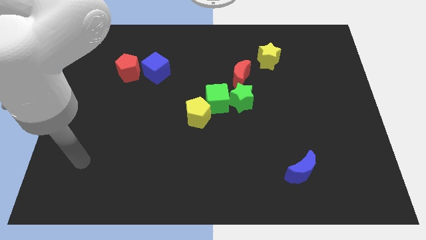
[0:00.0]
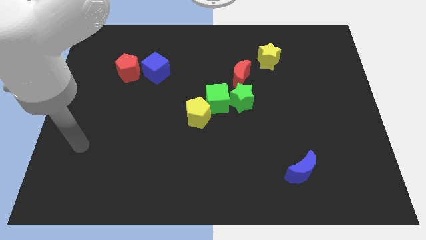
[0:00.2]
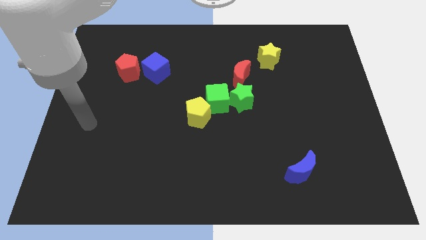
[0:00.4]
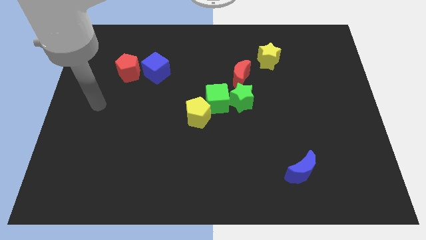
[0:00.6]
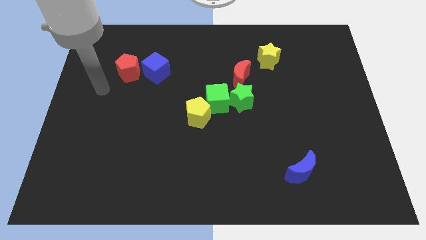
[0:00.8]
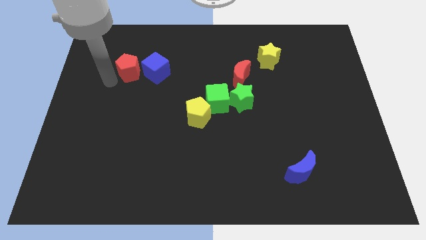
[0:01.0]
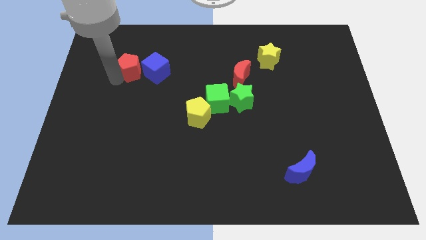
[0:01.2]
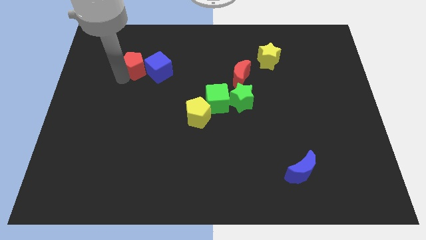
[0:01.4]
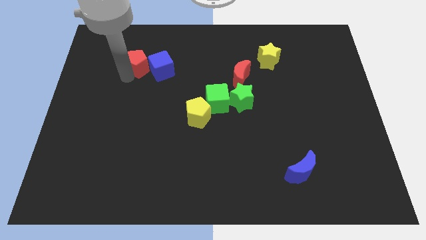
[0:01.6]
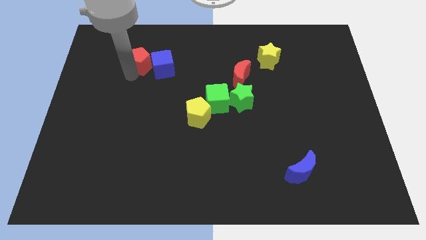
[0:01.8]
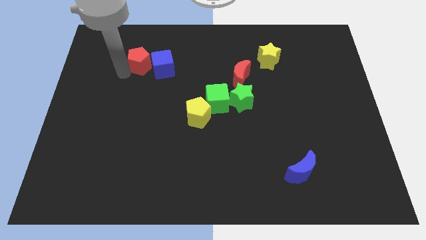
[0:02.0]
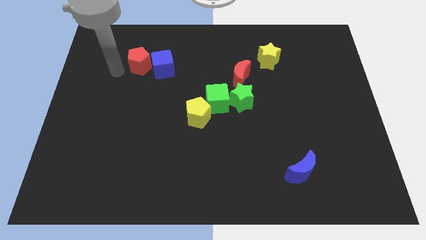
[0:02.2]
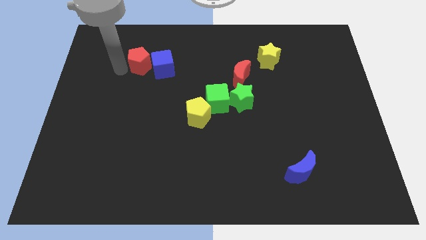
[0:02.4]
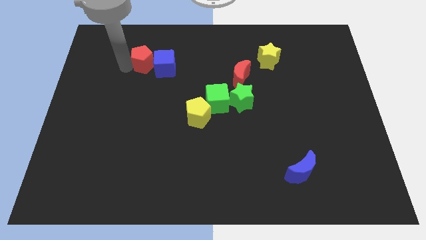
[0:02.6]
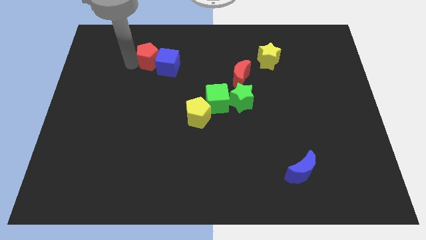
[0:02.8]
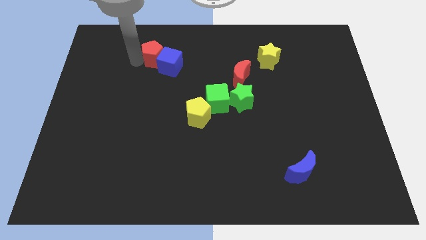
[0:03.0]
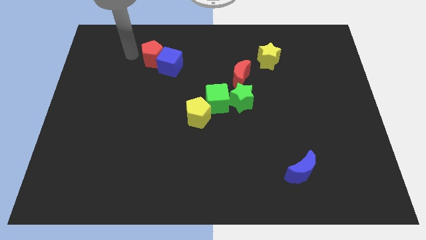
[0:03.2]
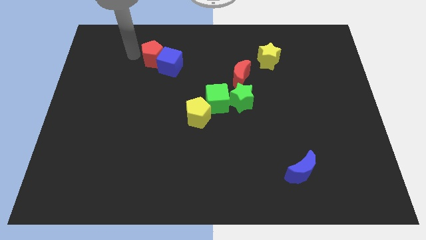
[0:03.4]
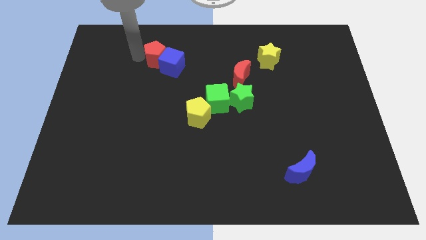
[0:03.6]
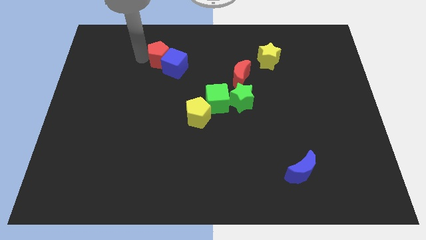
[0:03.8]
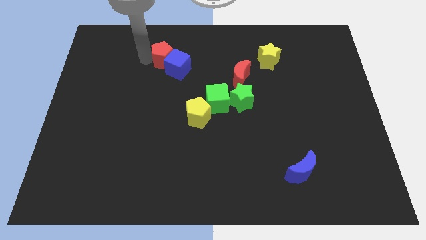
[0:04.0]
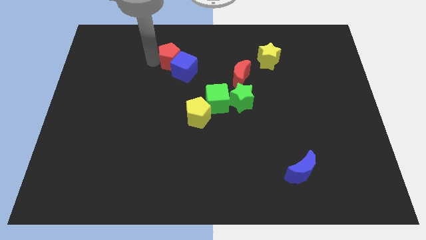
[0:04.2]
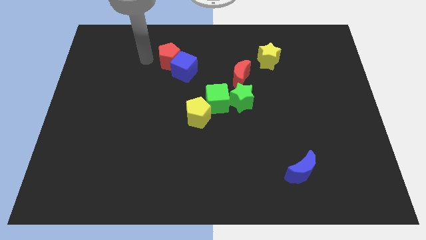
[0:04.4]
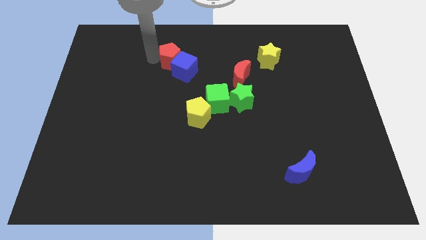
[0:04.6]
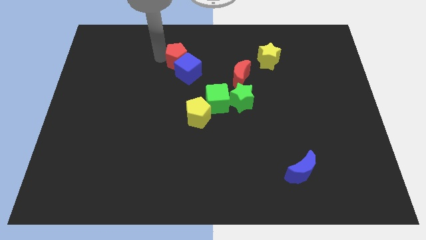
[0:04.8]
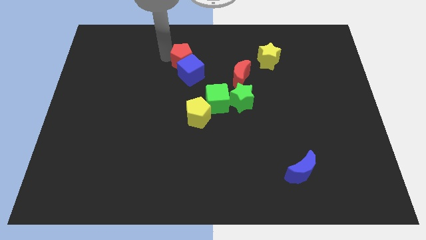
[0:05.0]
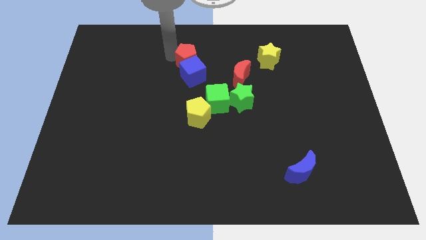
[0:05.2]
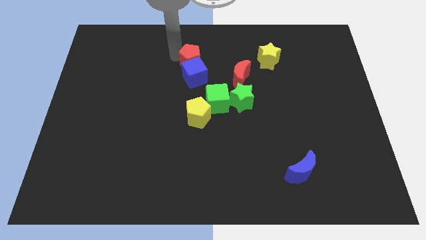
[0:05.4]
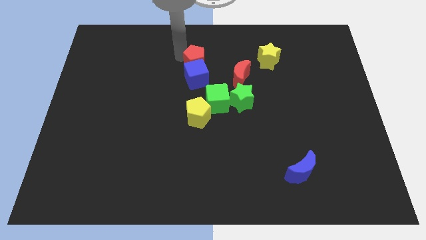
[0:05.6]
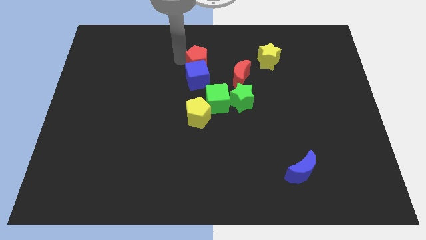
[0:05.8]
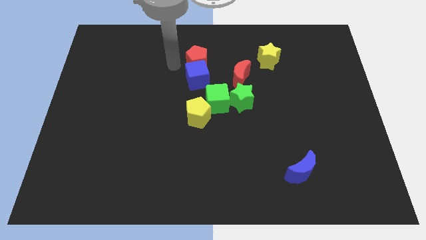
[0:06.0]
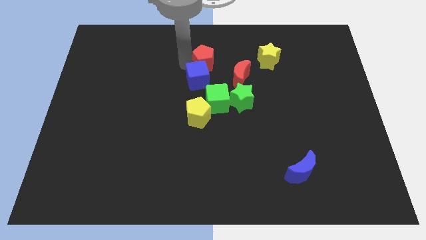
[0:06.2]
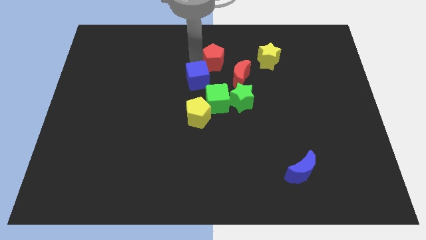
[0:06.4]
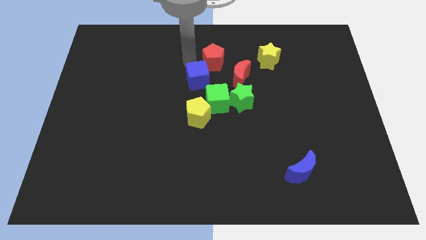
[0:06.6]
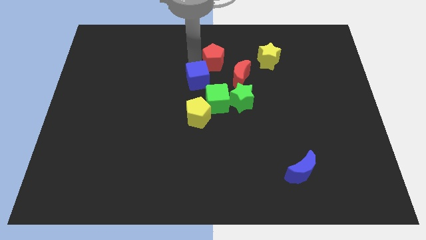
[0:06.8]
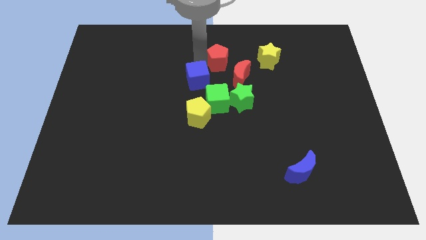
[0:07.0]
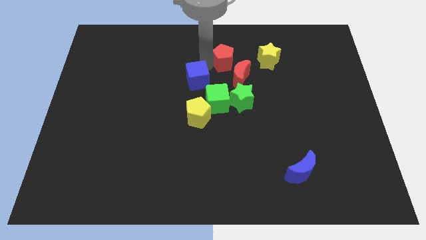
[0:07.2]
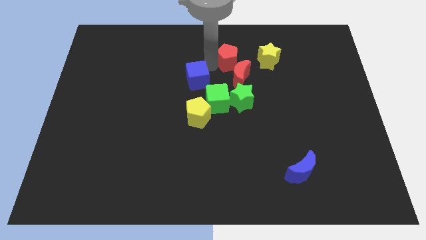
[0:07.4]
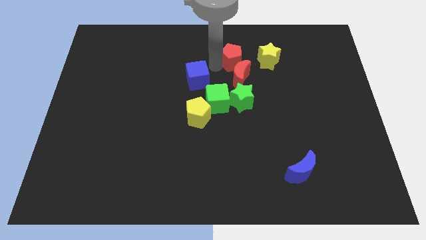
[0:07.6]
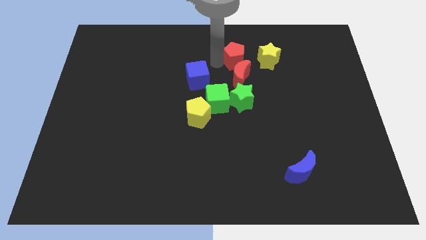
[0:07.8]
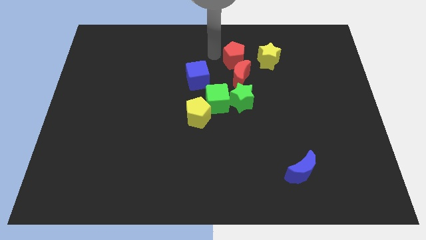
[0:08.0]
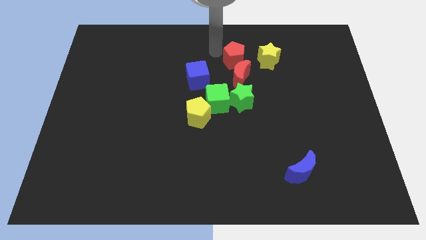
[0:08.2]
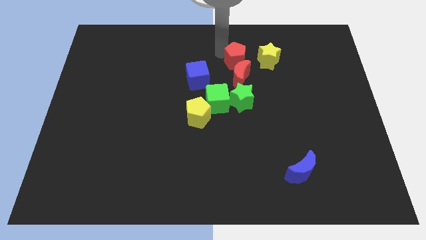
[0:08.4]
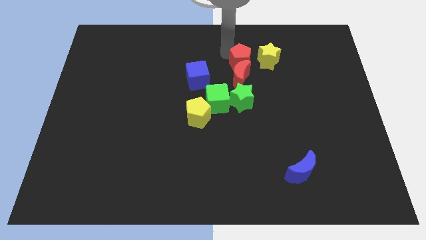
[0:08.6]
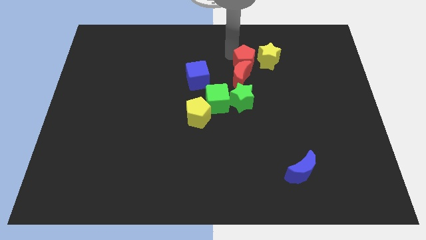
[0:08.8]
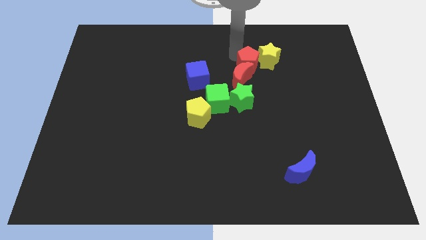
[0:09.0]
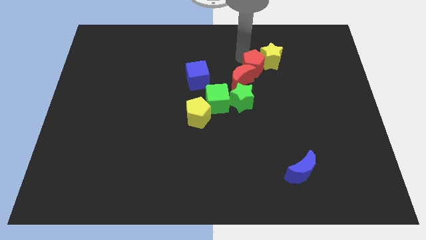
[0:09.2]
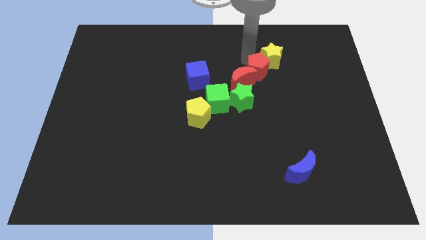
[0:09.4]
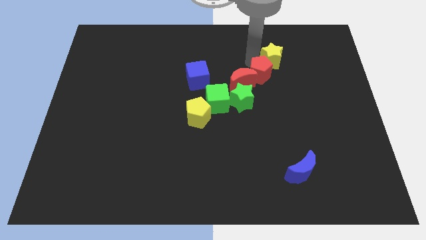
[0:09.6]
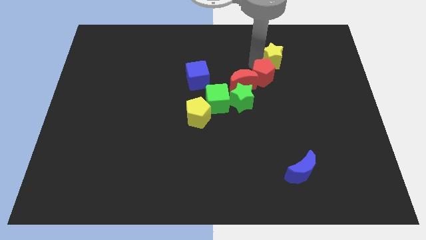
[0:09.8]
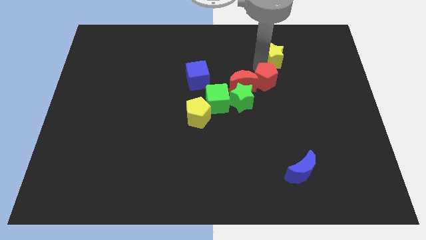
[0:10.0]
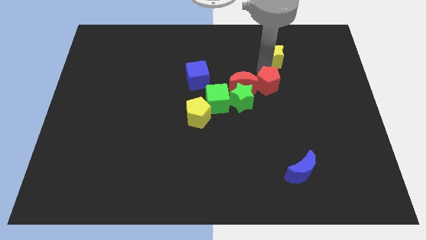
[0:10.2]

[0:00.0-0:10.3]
push the red pentagon right of the green star

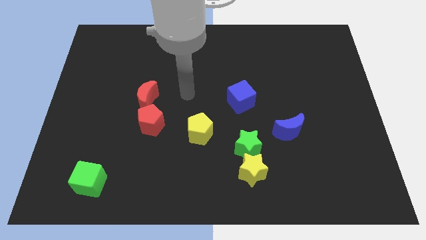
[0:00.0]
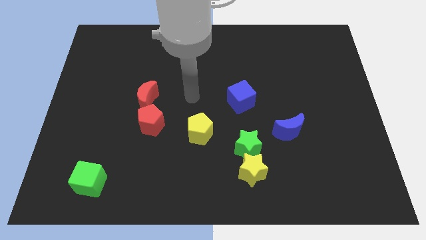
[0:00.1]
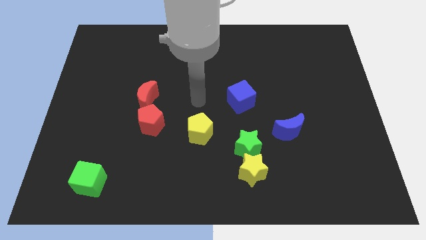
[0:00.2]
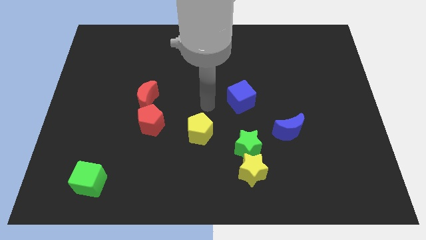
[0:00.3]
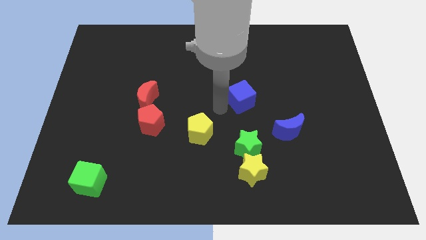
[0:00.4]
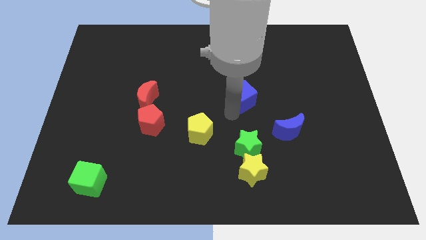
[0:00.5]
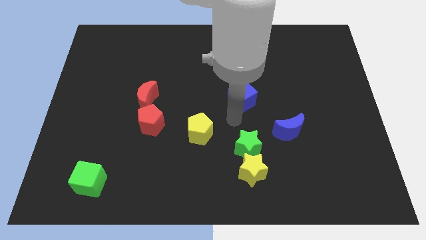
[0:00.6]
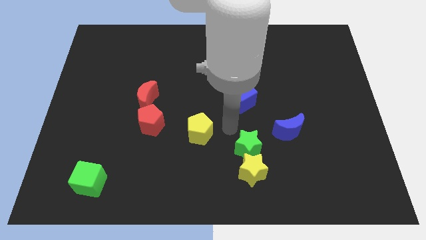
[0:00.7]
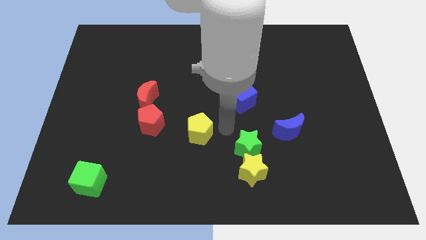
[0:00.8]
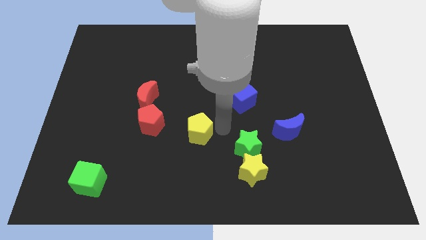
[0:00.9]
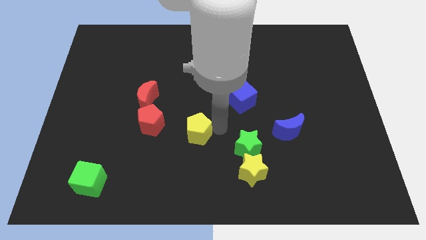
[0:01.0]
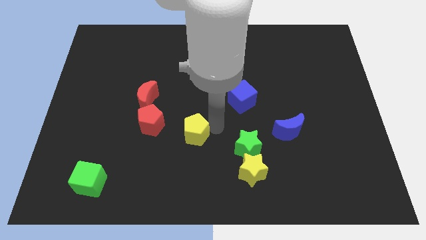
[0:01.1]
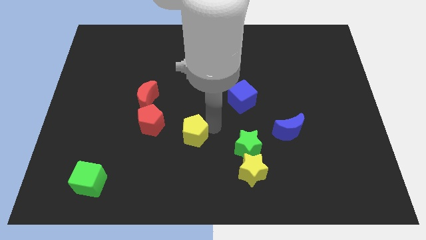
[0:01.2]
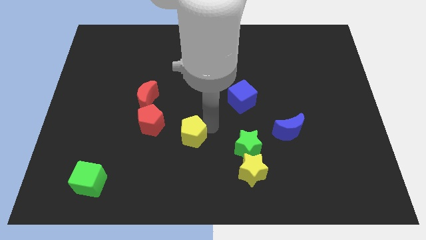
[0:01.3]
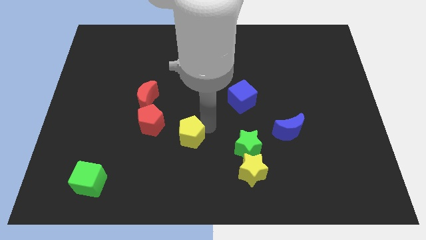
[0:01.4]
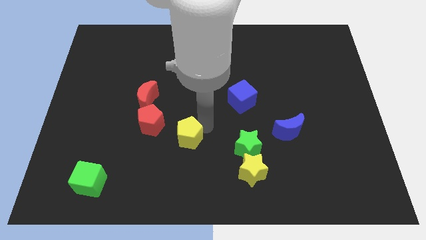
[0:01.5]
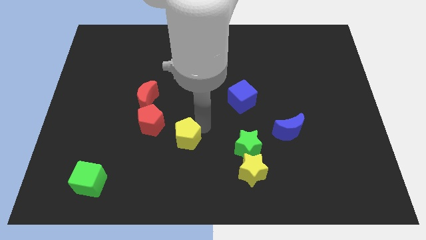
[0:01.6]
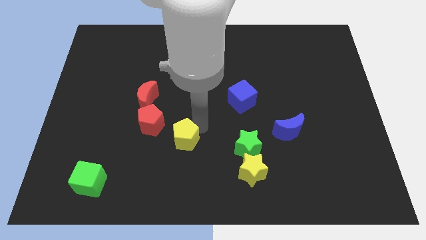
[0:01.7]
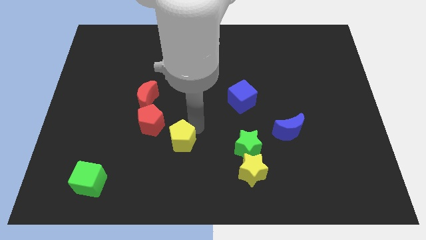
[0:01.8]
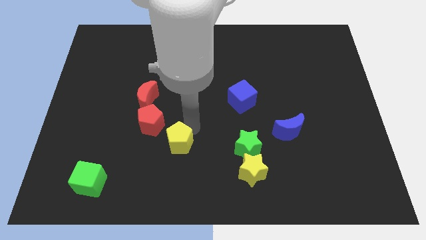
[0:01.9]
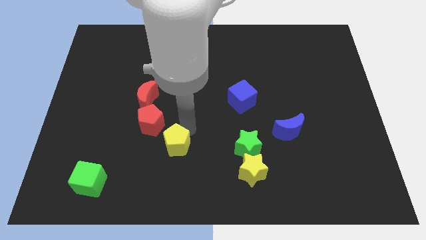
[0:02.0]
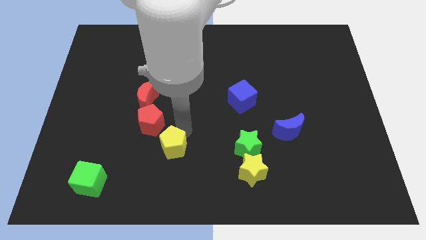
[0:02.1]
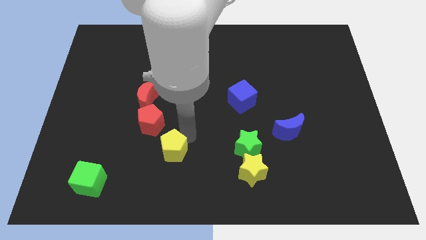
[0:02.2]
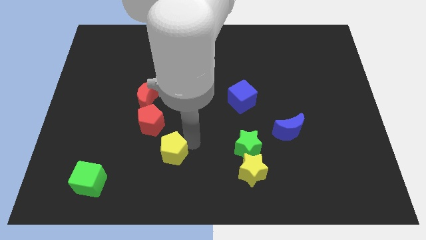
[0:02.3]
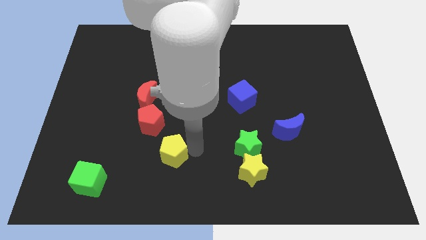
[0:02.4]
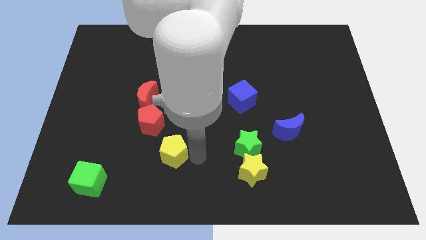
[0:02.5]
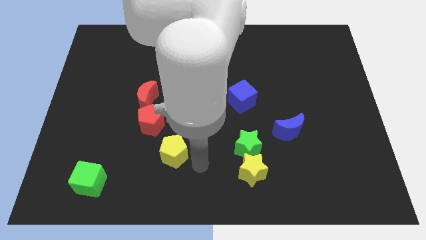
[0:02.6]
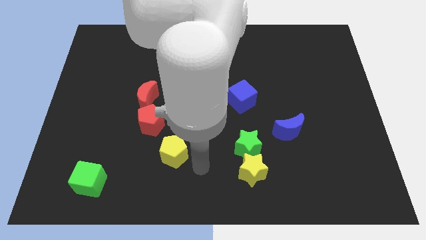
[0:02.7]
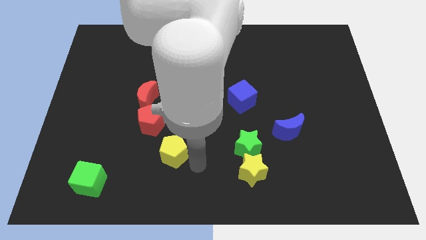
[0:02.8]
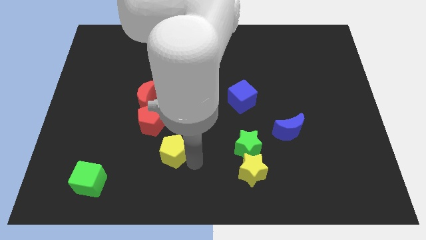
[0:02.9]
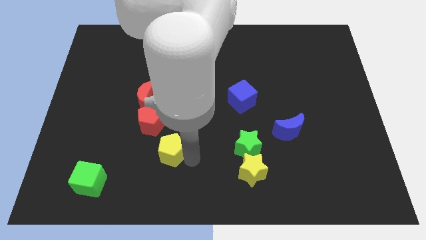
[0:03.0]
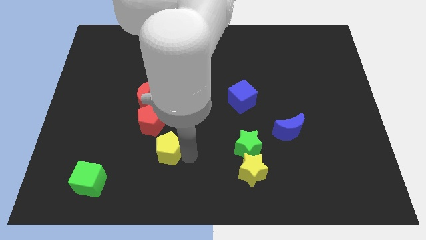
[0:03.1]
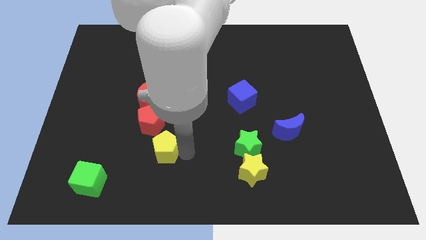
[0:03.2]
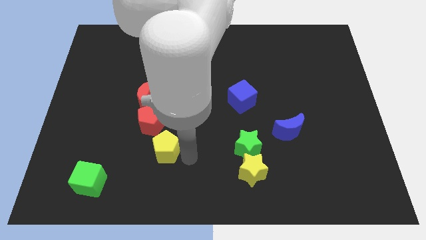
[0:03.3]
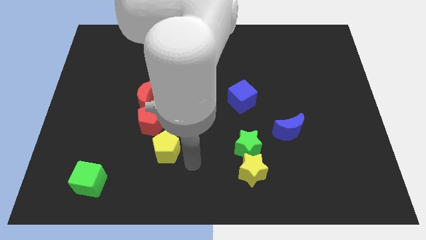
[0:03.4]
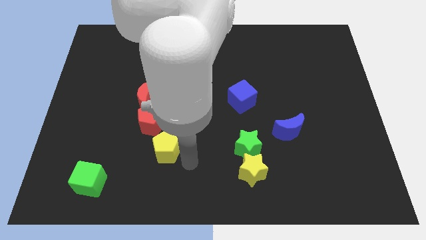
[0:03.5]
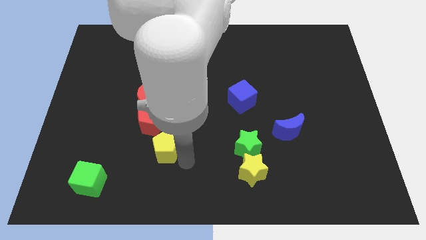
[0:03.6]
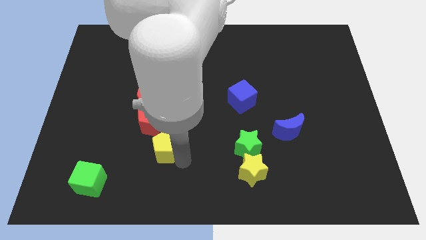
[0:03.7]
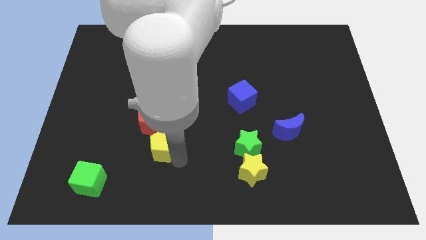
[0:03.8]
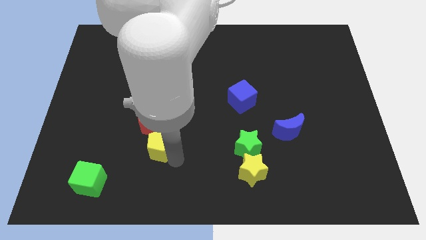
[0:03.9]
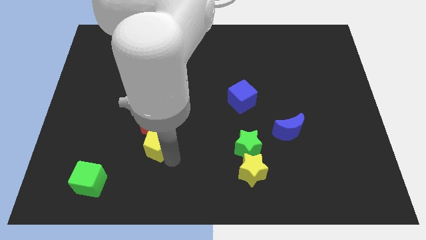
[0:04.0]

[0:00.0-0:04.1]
put the yellow pentagon to the bottom of the red moon
